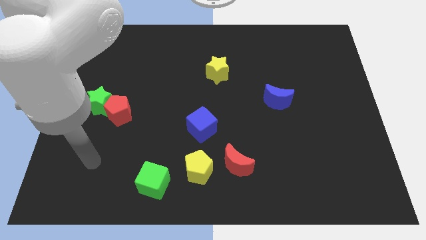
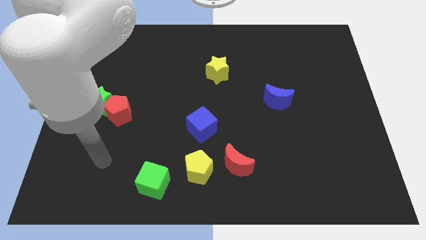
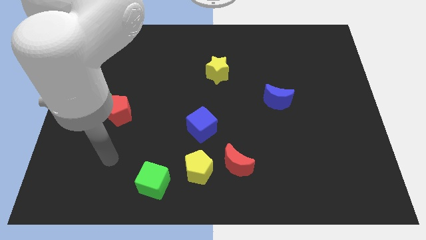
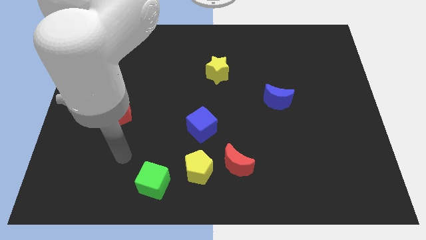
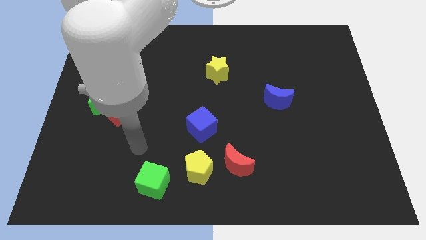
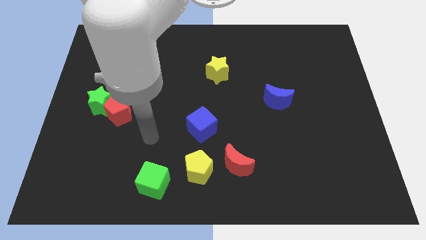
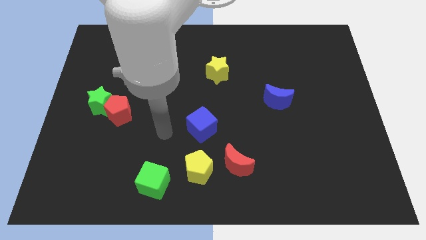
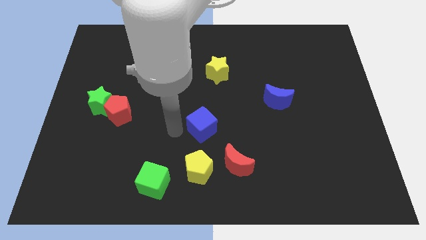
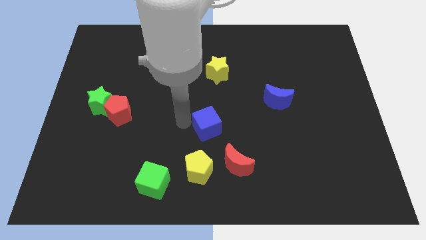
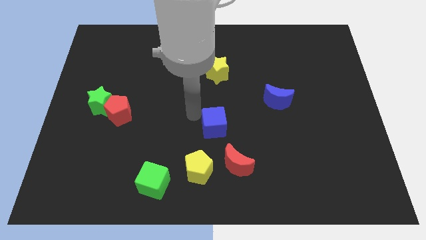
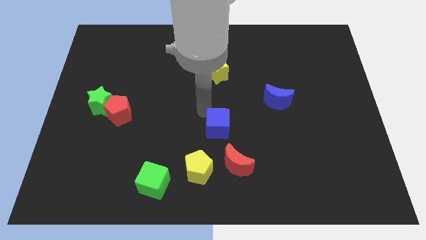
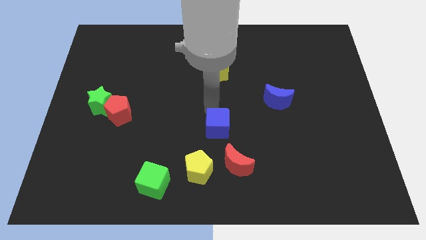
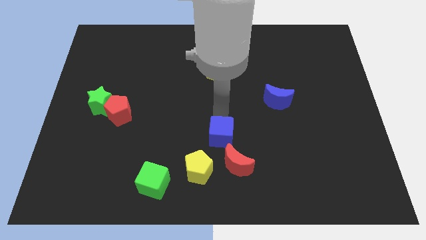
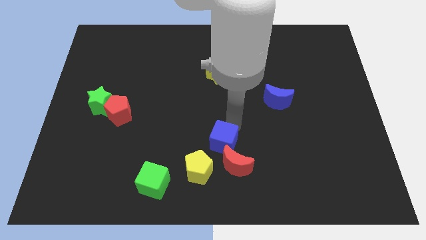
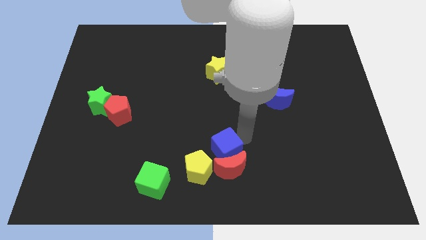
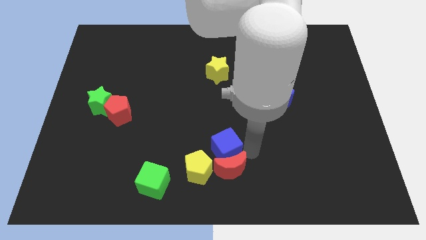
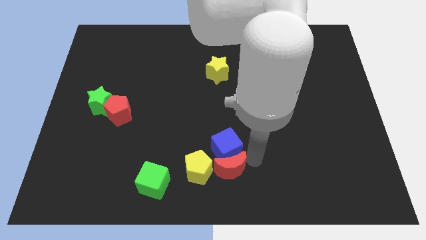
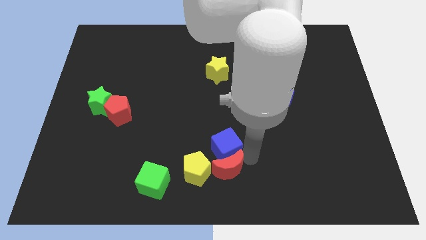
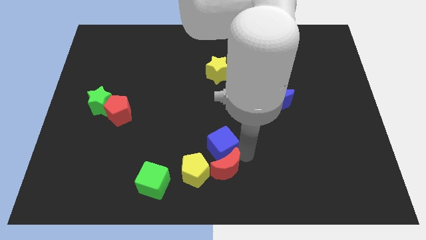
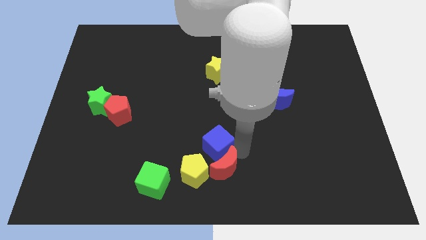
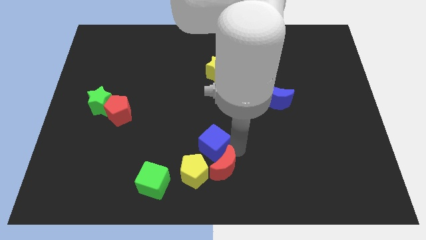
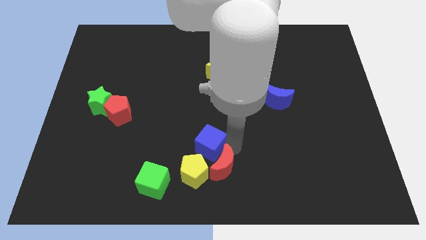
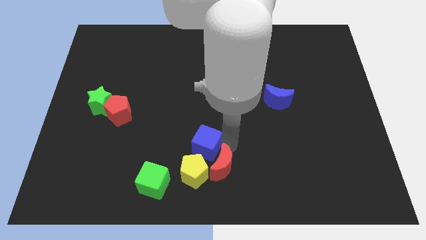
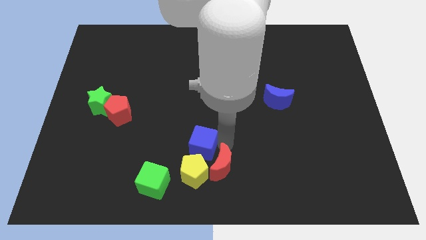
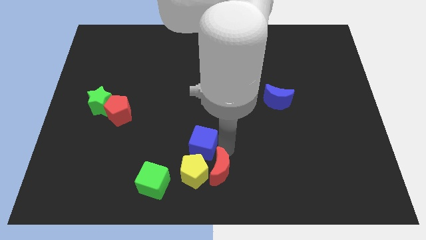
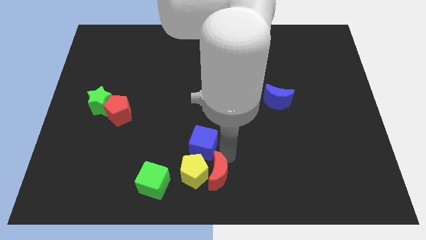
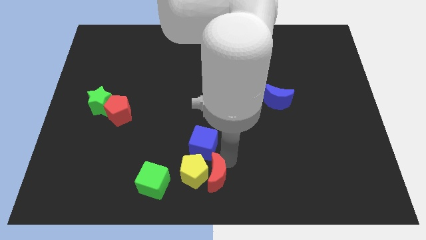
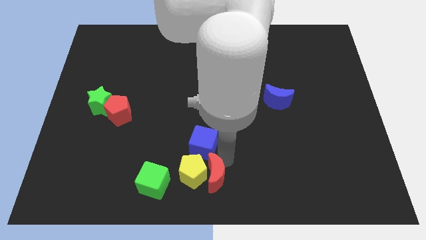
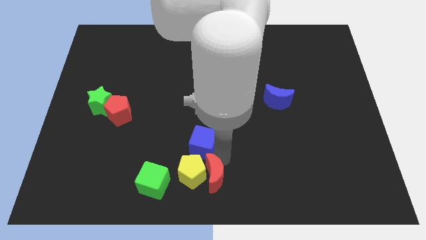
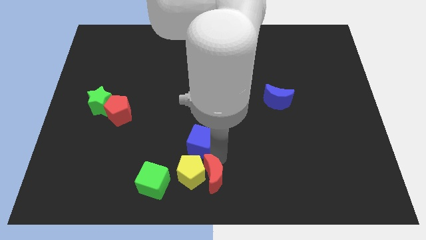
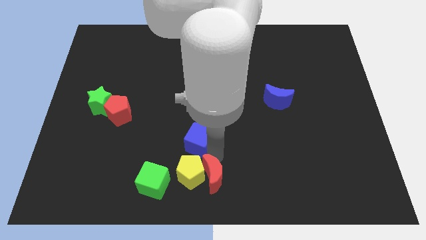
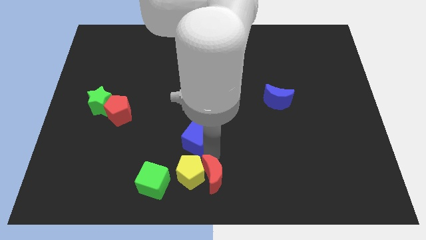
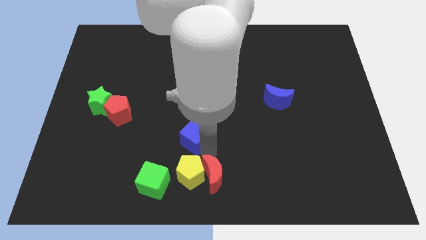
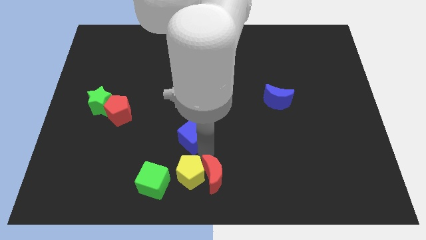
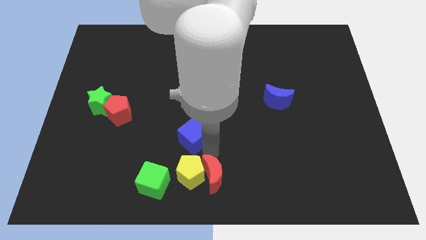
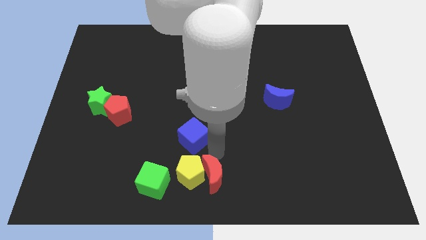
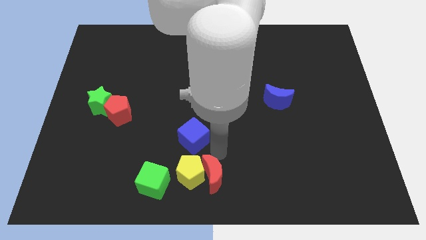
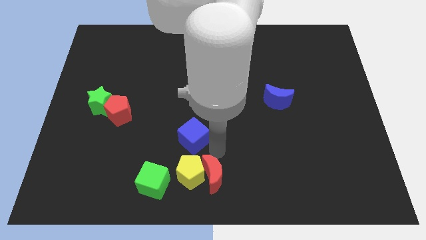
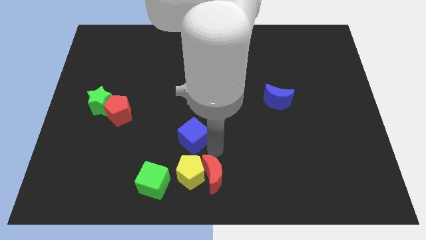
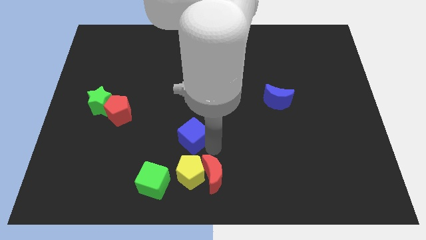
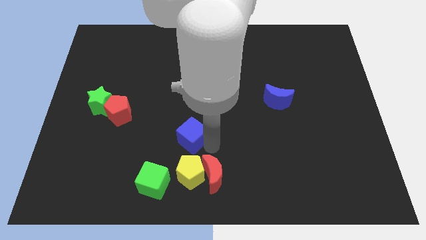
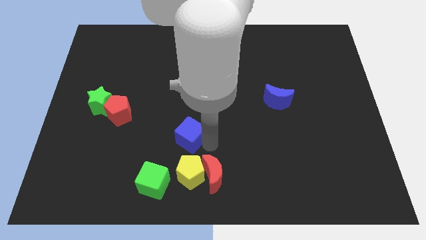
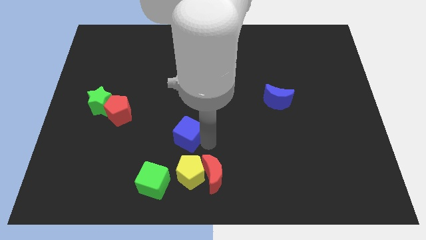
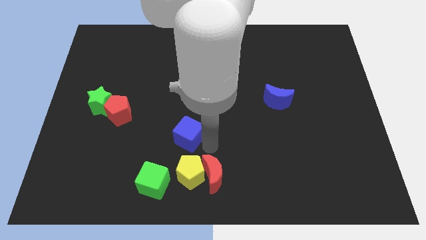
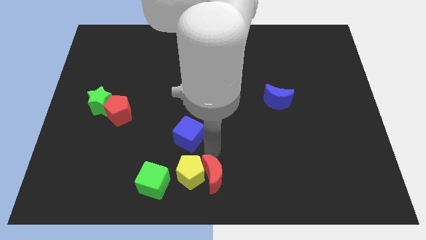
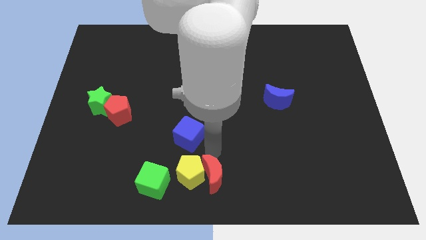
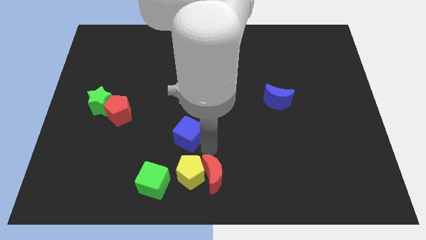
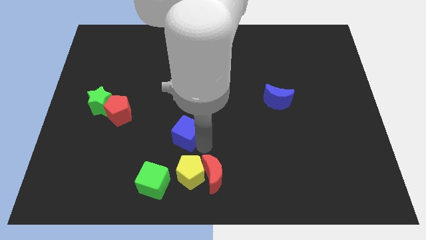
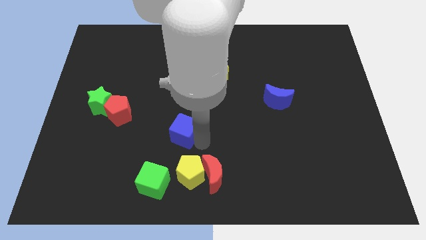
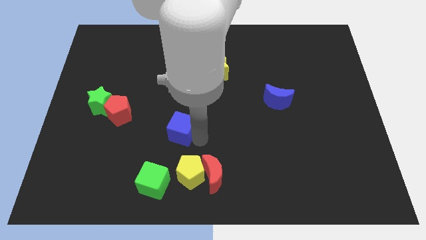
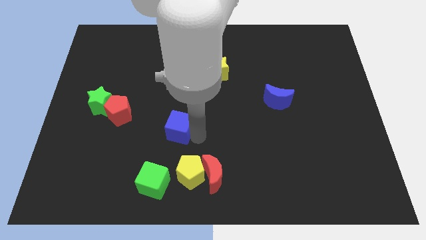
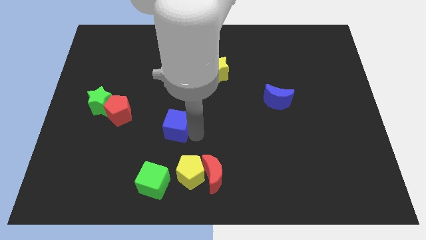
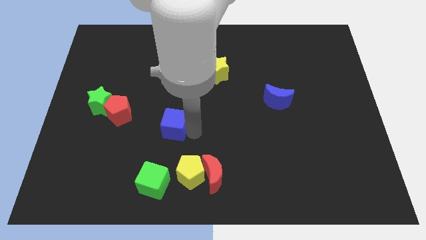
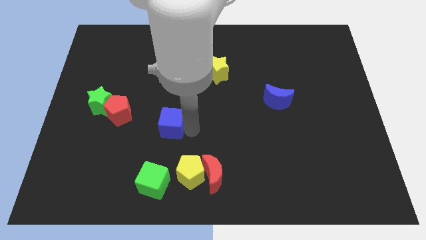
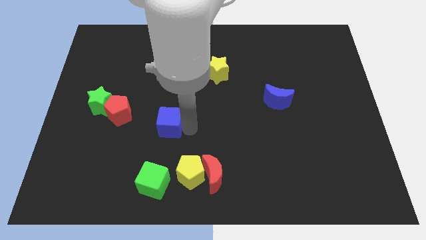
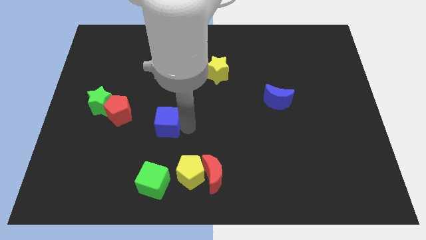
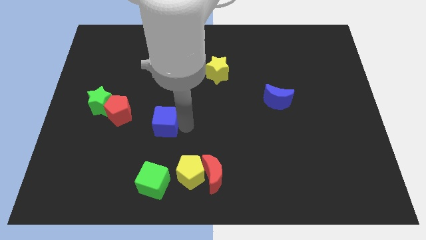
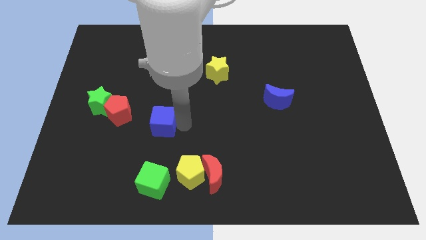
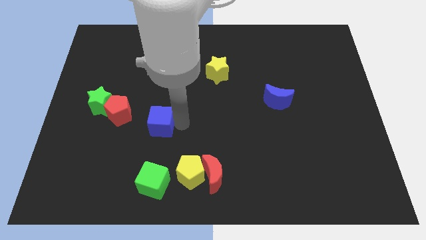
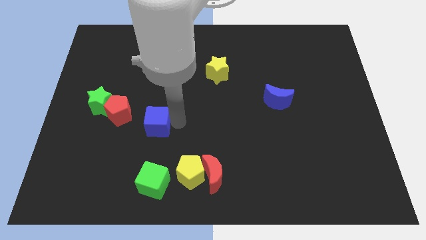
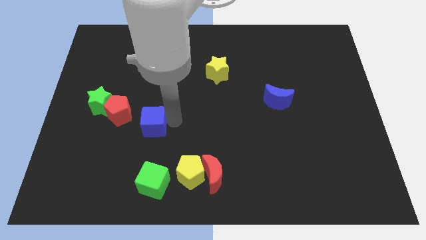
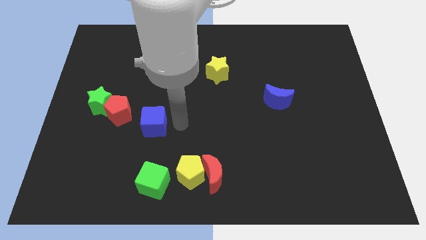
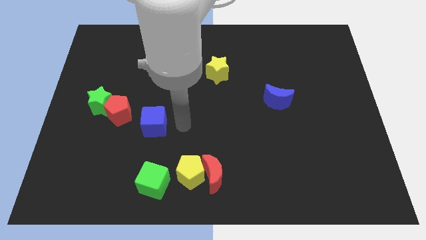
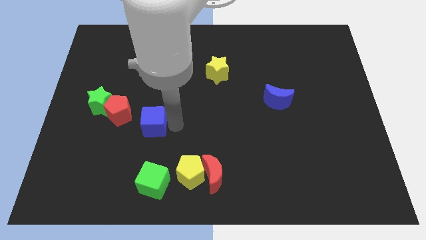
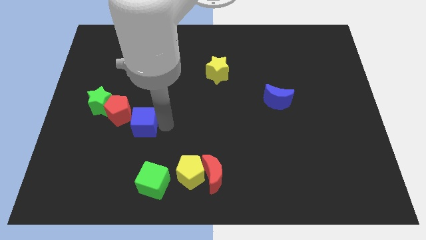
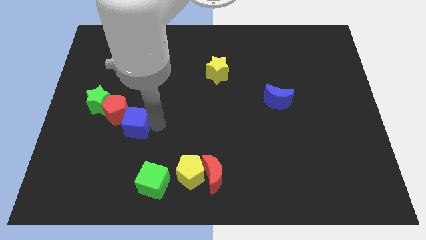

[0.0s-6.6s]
slide the blue cube diagonally down and to the right of the green star
